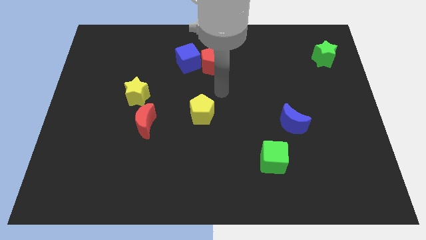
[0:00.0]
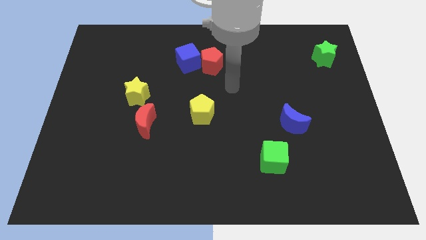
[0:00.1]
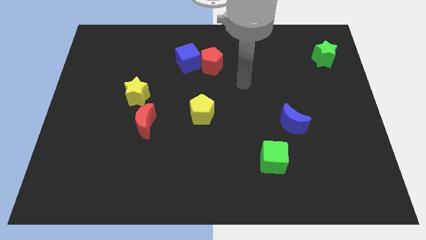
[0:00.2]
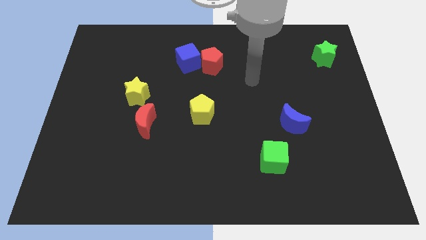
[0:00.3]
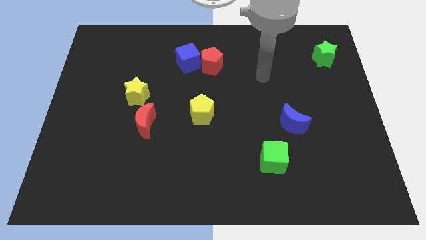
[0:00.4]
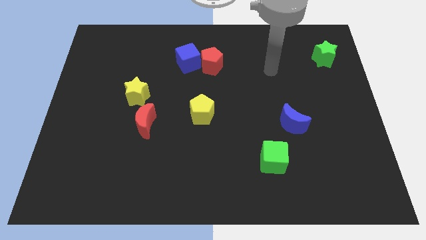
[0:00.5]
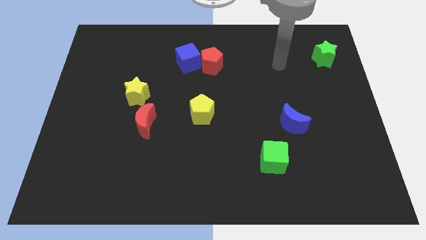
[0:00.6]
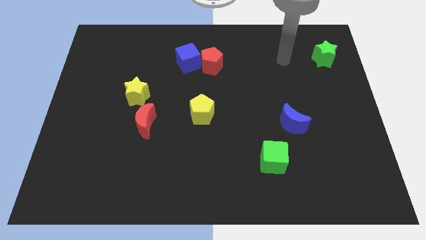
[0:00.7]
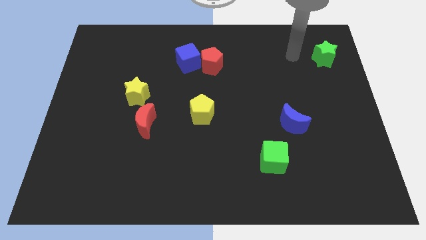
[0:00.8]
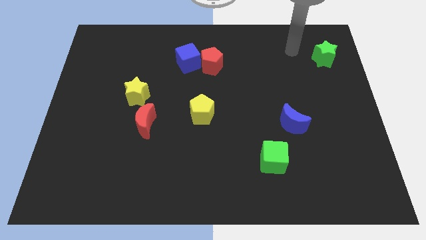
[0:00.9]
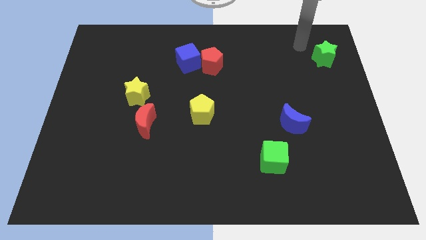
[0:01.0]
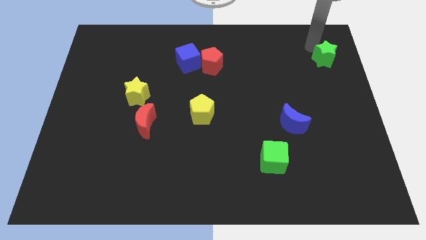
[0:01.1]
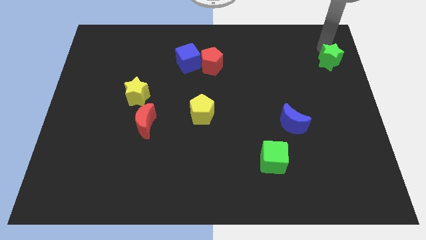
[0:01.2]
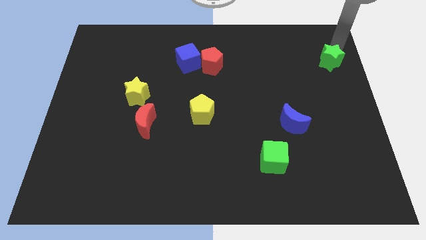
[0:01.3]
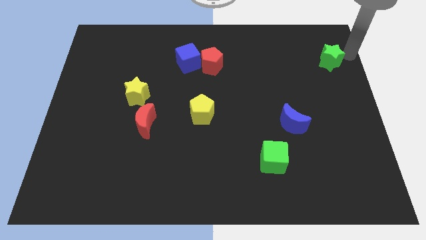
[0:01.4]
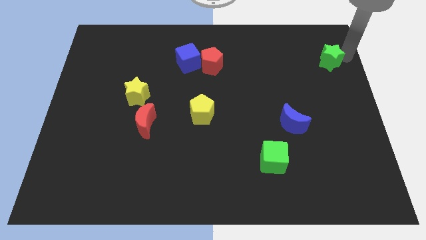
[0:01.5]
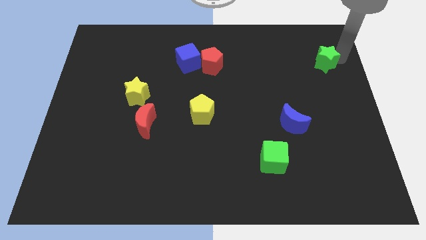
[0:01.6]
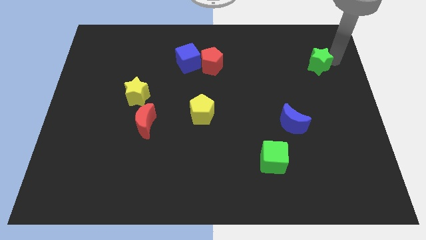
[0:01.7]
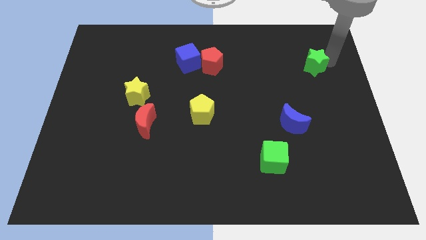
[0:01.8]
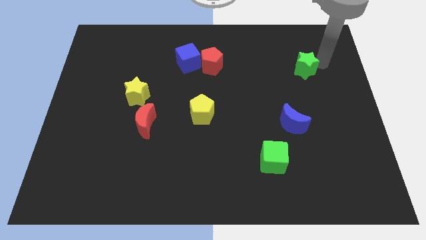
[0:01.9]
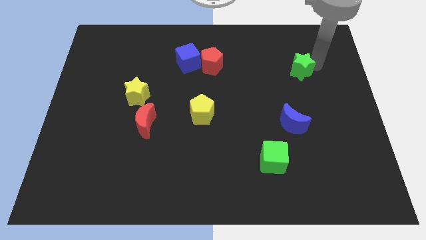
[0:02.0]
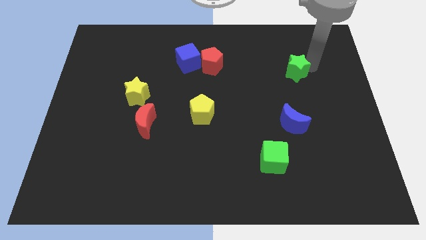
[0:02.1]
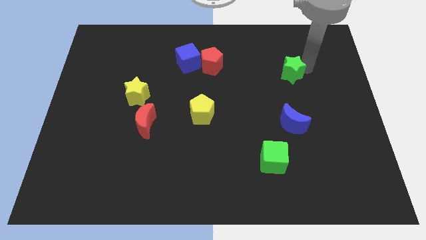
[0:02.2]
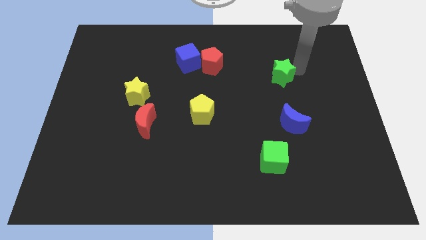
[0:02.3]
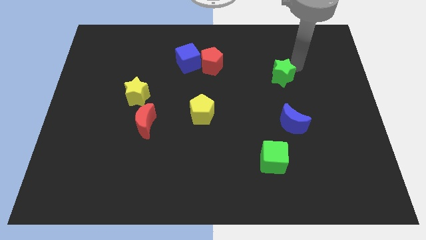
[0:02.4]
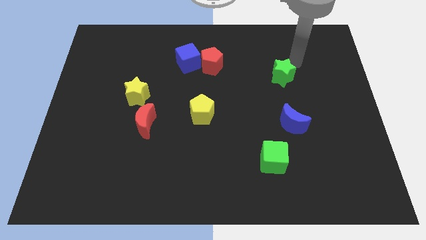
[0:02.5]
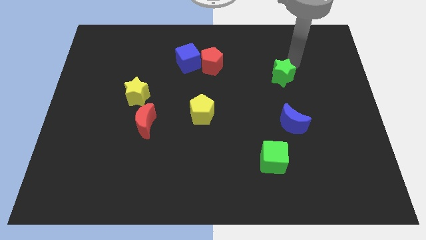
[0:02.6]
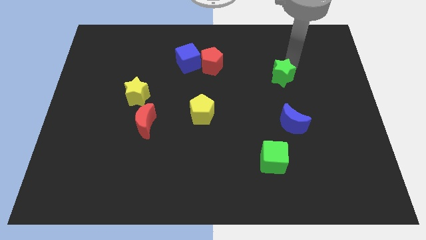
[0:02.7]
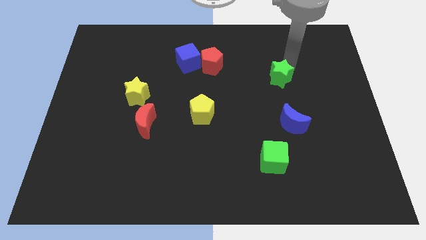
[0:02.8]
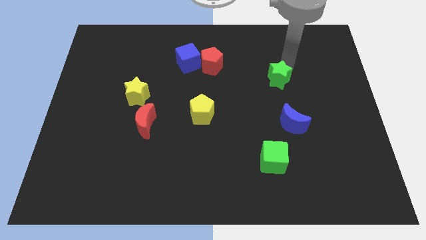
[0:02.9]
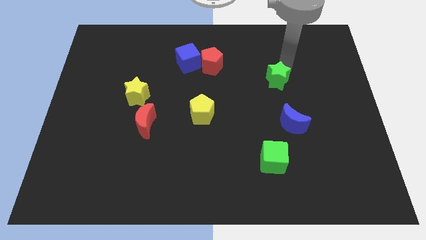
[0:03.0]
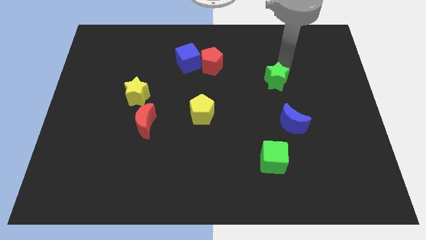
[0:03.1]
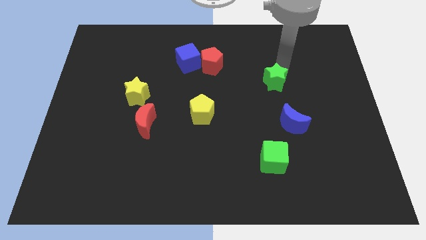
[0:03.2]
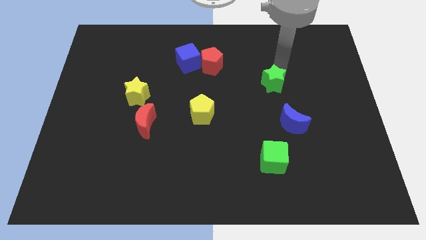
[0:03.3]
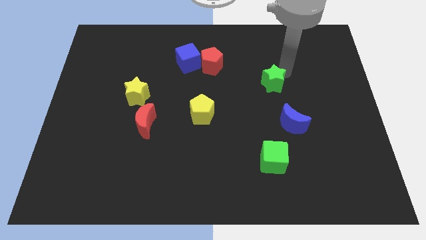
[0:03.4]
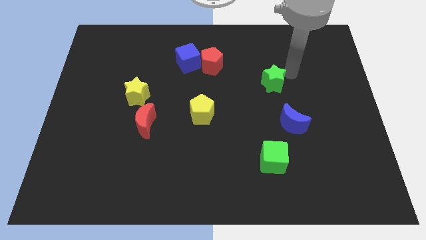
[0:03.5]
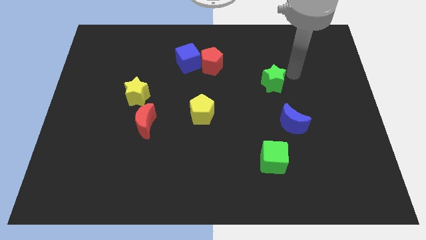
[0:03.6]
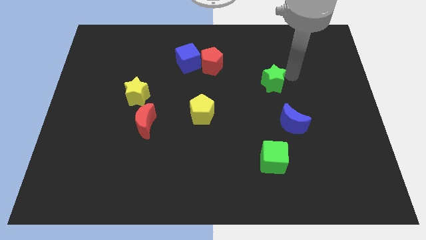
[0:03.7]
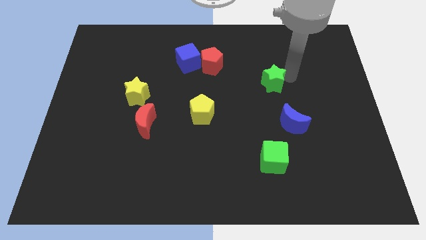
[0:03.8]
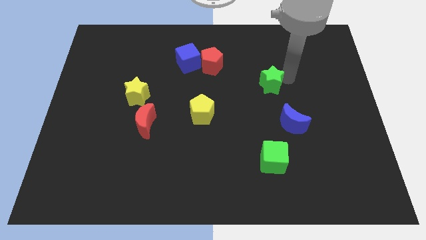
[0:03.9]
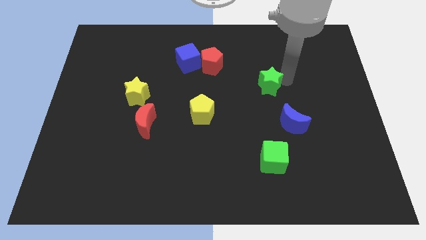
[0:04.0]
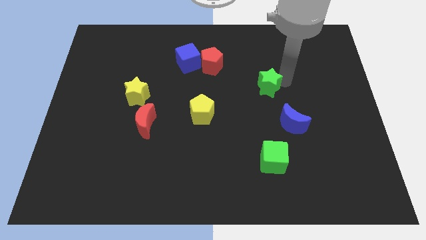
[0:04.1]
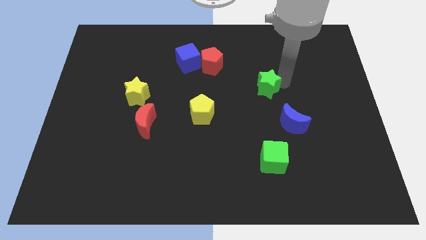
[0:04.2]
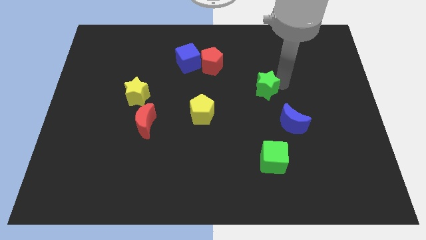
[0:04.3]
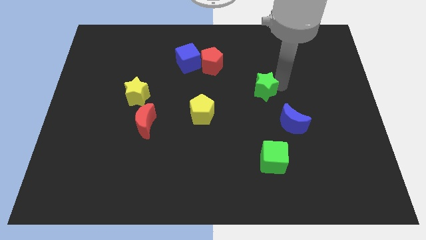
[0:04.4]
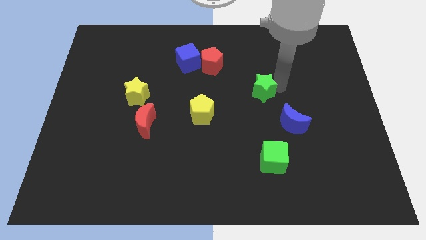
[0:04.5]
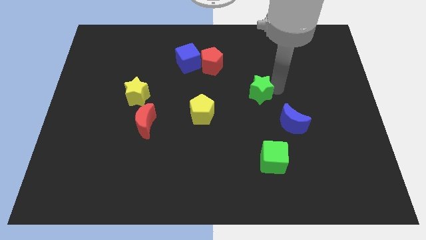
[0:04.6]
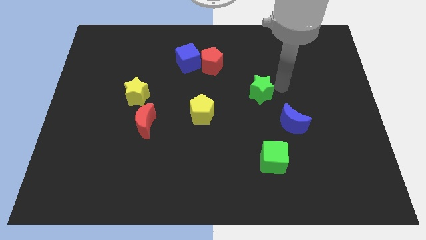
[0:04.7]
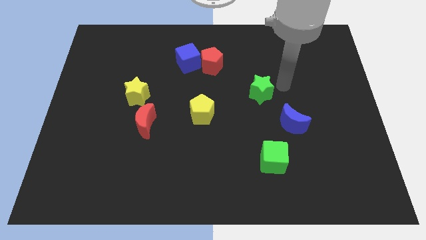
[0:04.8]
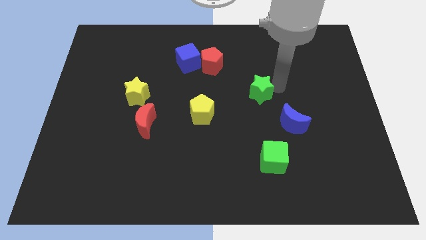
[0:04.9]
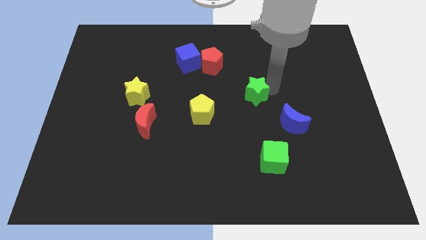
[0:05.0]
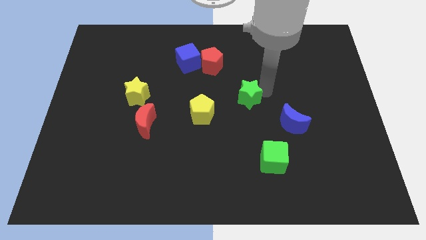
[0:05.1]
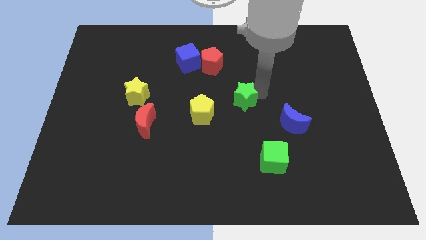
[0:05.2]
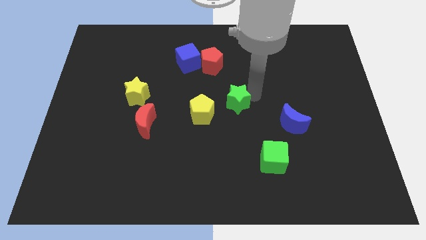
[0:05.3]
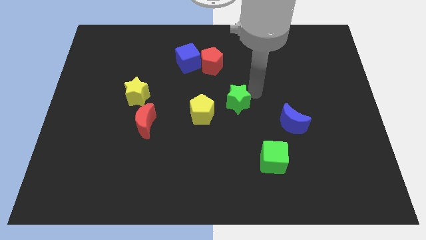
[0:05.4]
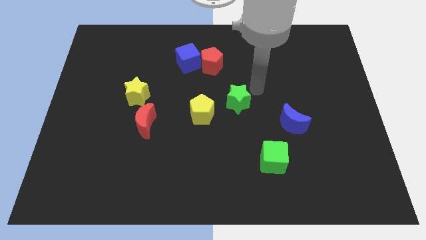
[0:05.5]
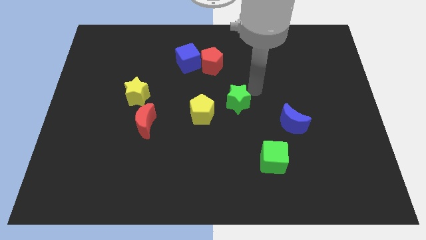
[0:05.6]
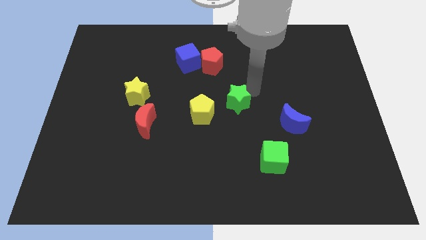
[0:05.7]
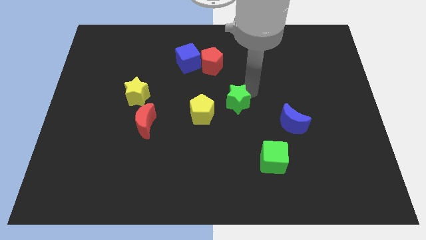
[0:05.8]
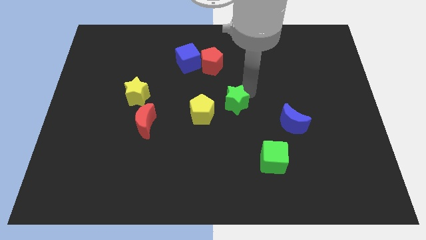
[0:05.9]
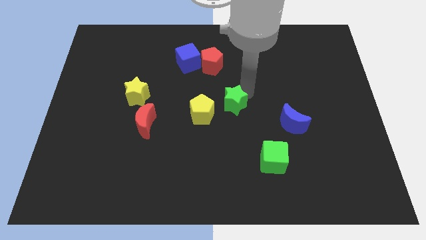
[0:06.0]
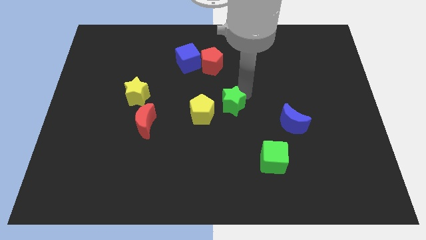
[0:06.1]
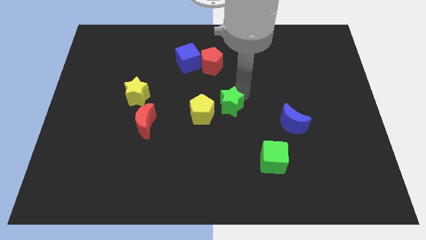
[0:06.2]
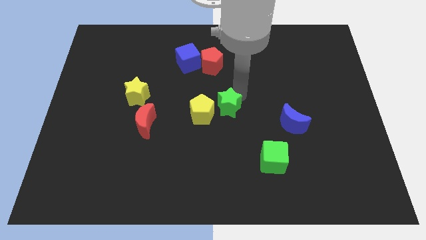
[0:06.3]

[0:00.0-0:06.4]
push the green star next to the yellow pentagon

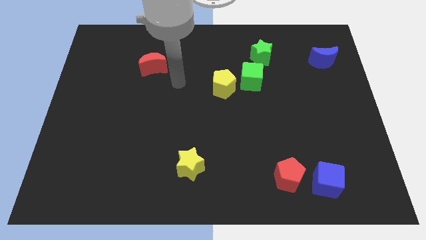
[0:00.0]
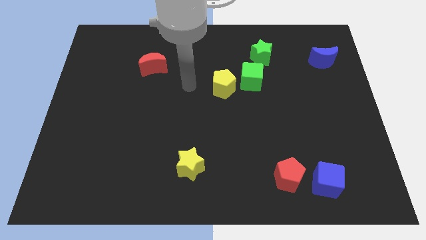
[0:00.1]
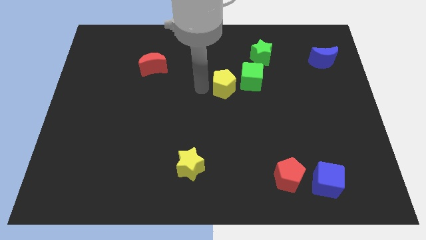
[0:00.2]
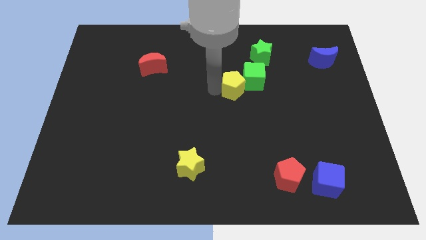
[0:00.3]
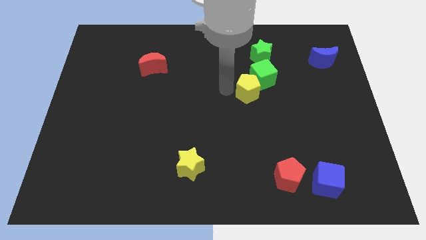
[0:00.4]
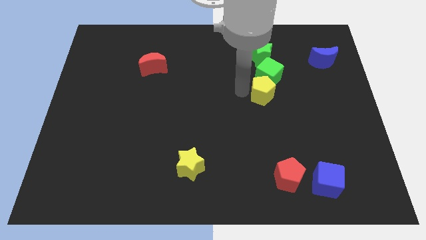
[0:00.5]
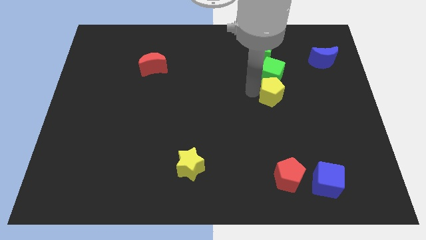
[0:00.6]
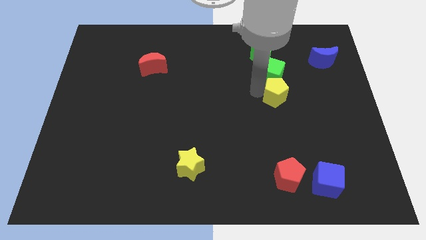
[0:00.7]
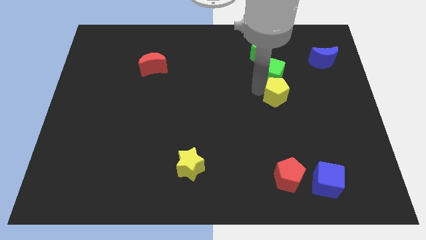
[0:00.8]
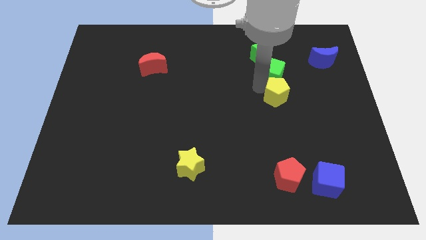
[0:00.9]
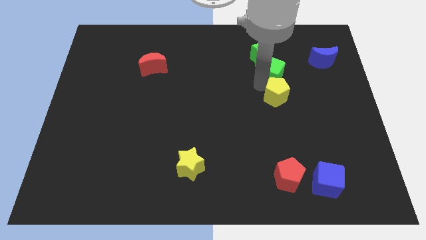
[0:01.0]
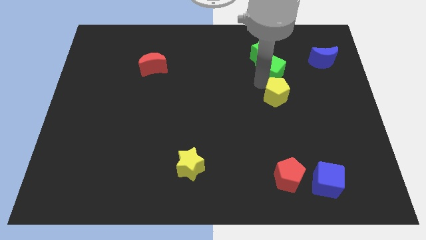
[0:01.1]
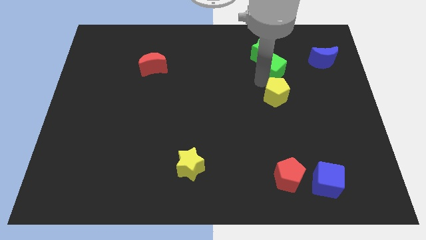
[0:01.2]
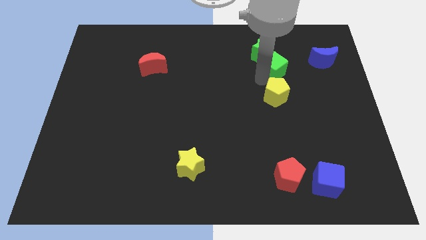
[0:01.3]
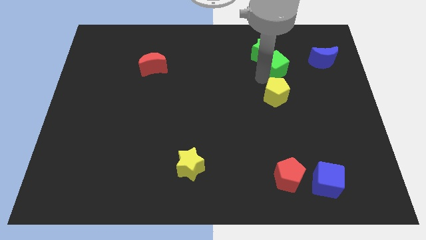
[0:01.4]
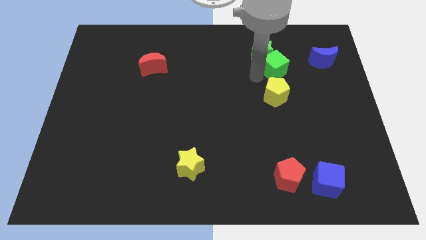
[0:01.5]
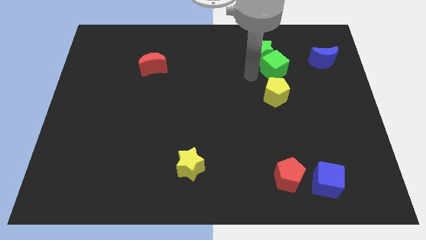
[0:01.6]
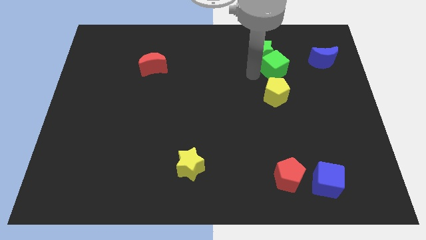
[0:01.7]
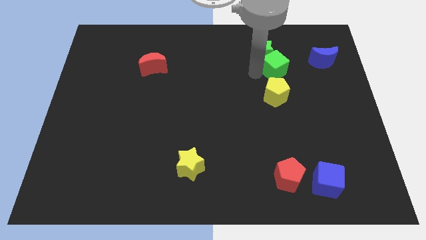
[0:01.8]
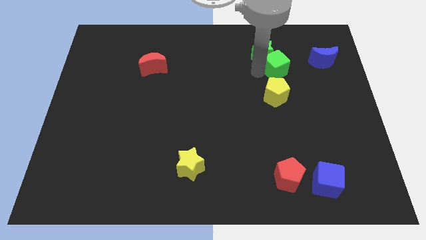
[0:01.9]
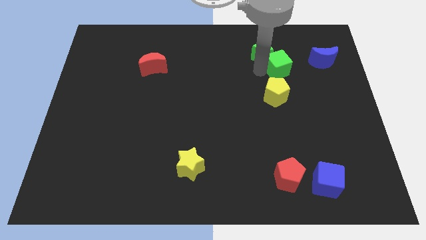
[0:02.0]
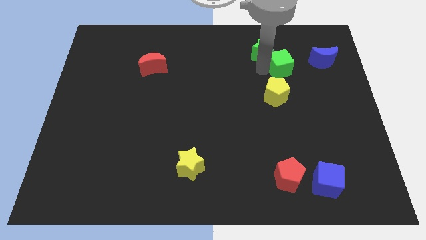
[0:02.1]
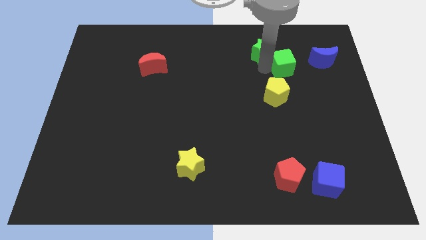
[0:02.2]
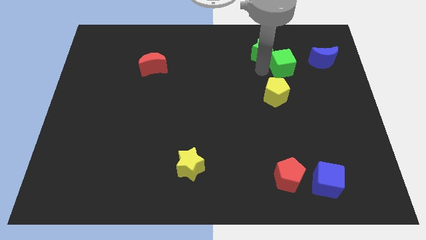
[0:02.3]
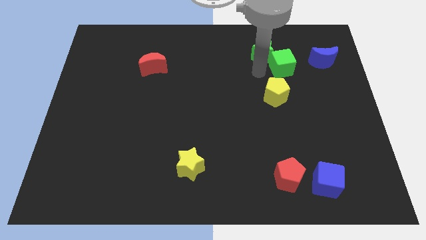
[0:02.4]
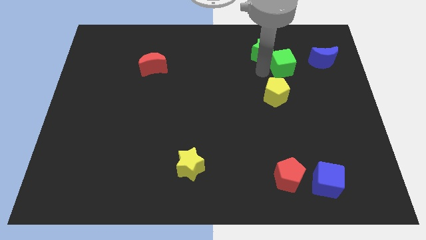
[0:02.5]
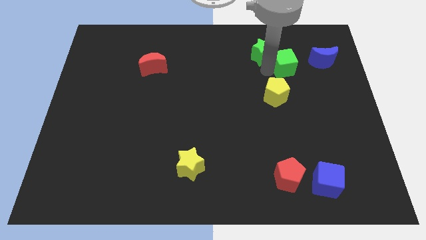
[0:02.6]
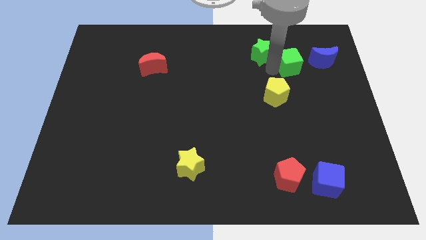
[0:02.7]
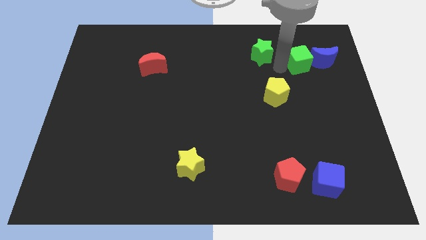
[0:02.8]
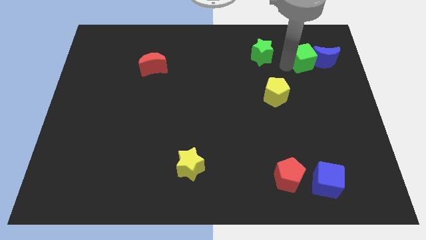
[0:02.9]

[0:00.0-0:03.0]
put the green cube to the blue moon
